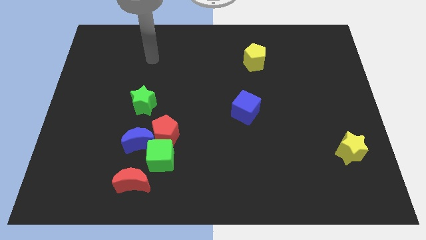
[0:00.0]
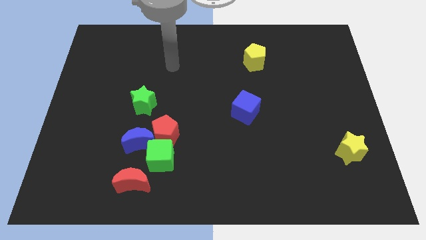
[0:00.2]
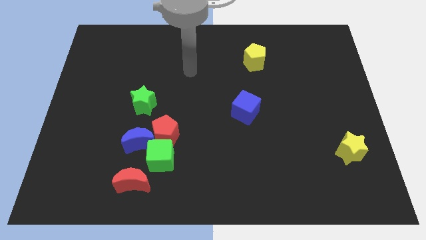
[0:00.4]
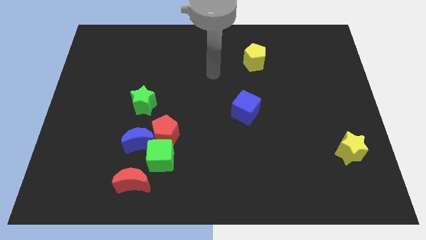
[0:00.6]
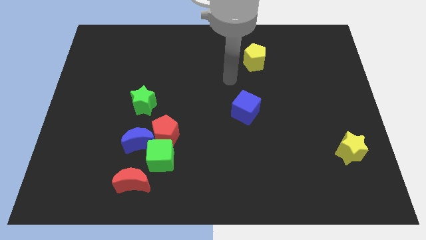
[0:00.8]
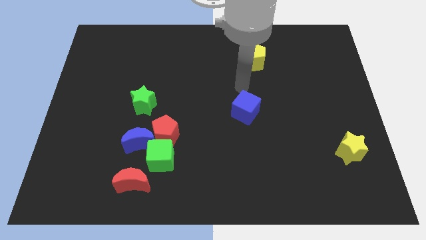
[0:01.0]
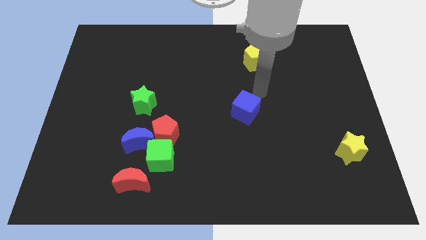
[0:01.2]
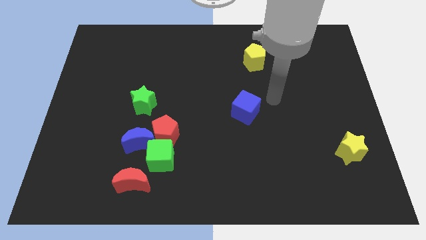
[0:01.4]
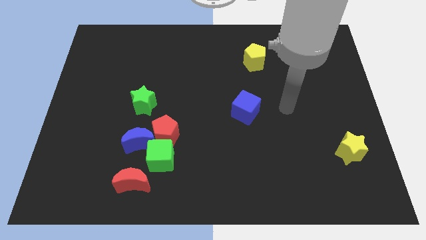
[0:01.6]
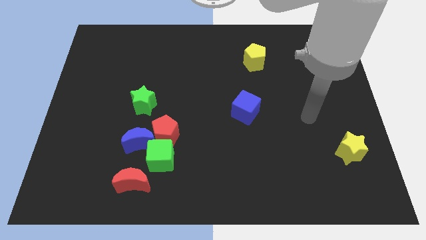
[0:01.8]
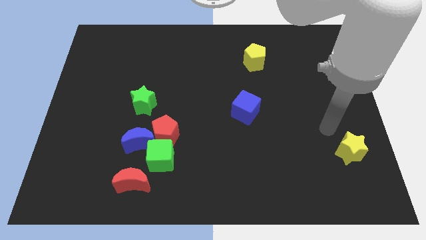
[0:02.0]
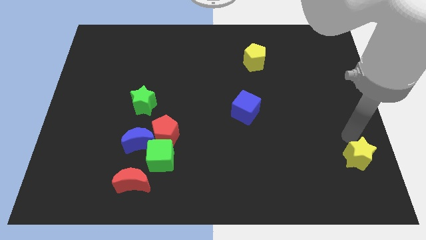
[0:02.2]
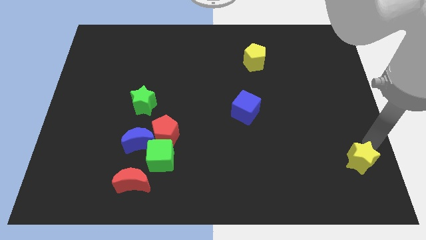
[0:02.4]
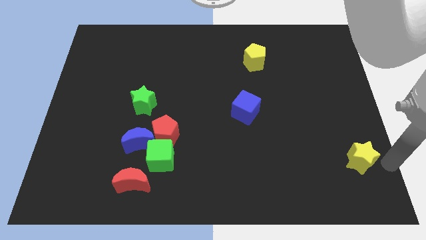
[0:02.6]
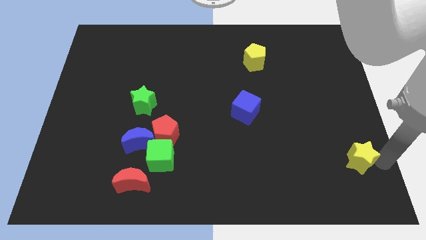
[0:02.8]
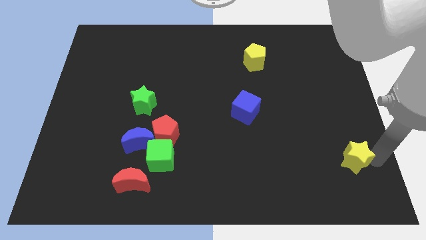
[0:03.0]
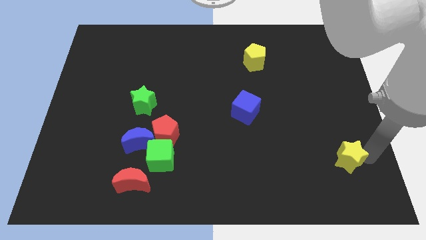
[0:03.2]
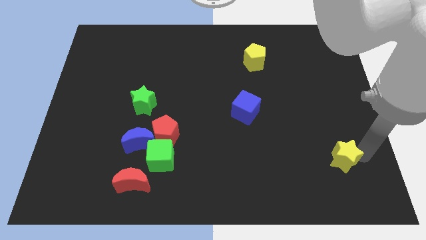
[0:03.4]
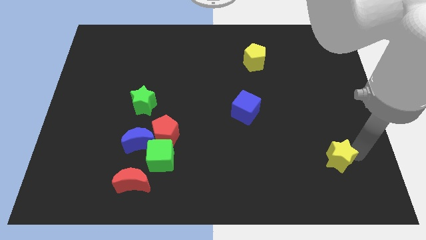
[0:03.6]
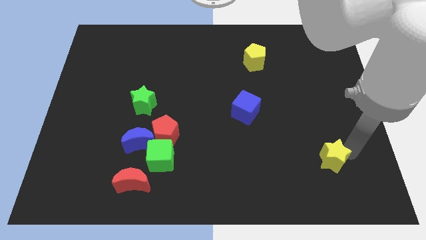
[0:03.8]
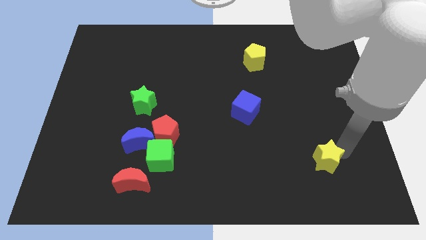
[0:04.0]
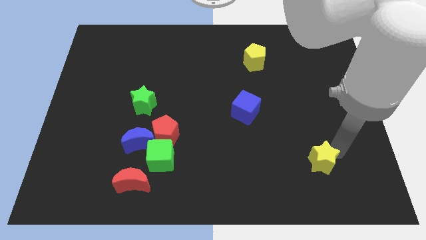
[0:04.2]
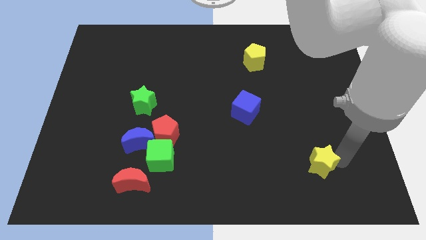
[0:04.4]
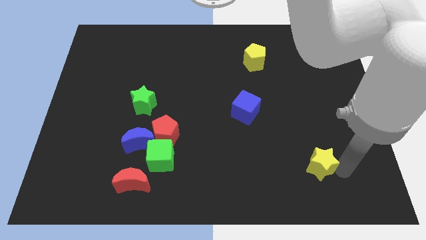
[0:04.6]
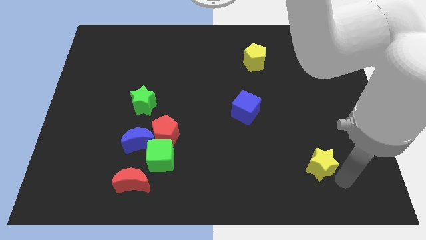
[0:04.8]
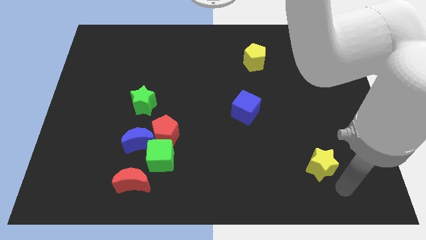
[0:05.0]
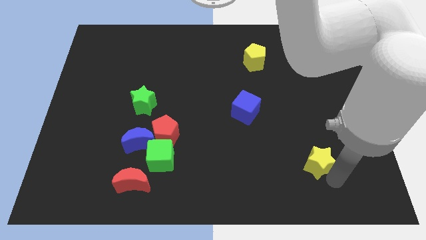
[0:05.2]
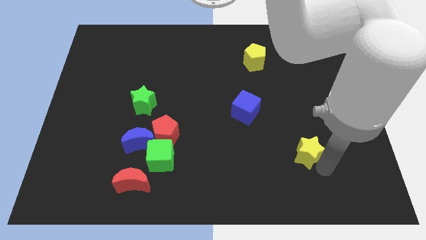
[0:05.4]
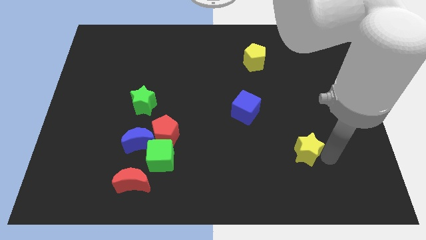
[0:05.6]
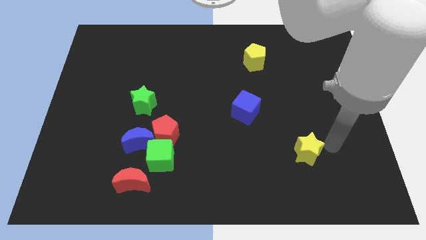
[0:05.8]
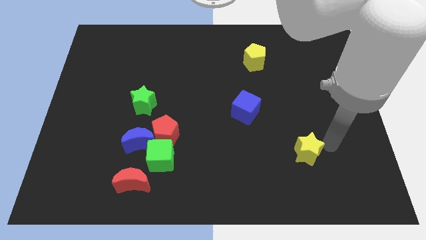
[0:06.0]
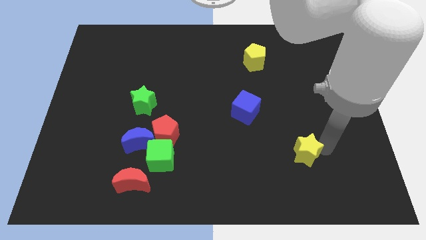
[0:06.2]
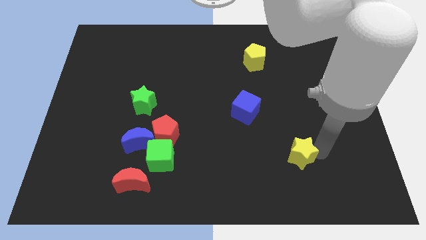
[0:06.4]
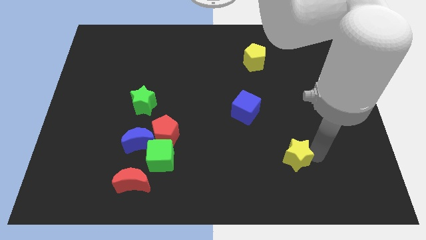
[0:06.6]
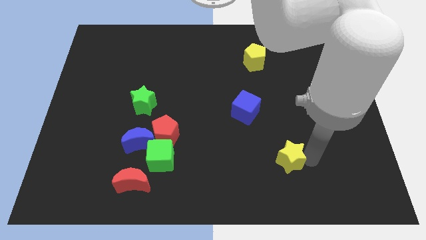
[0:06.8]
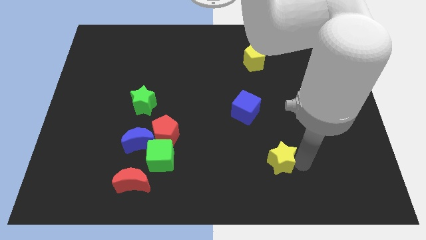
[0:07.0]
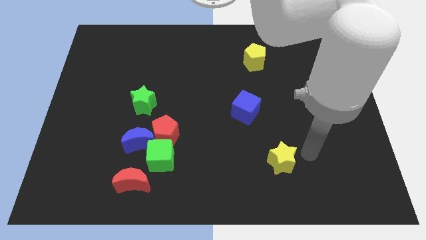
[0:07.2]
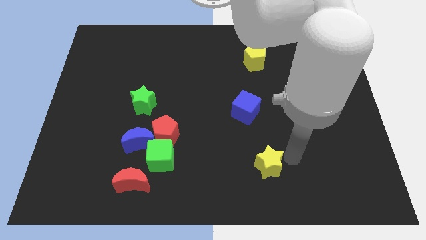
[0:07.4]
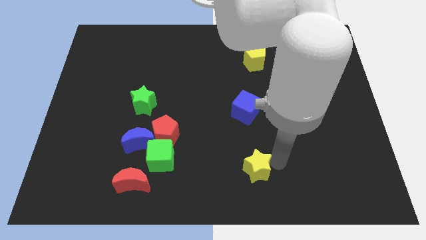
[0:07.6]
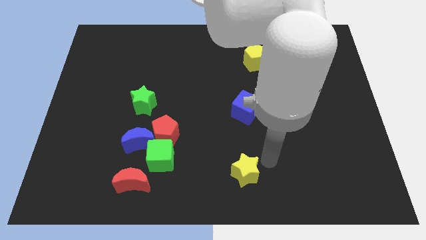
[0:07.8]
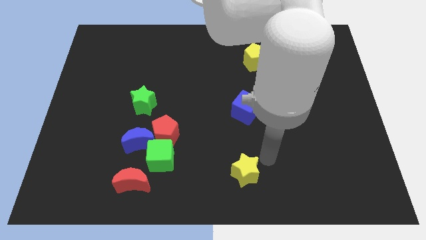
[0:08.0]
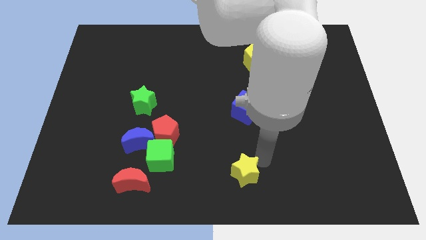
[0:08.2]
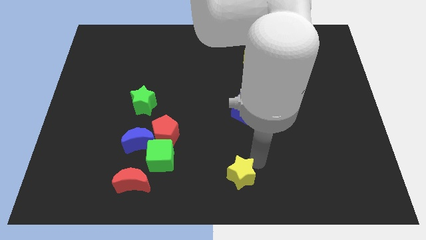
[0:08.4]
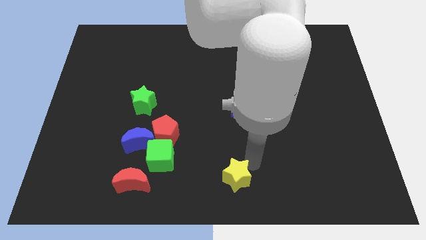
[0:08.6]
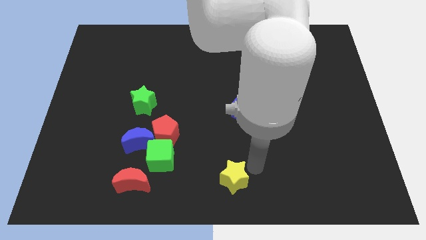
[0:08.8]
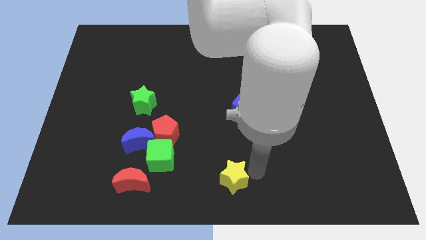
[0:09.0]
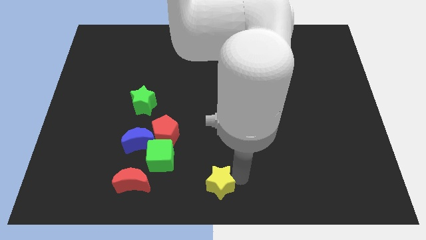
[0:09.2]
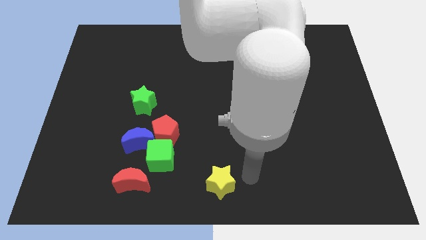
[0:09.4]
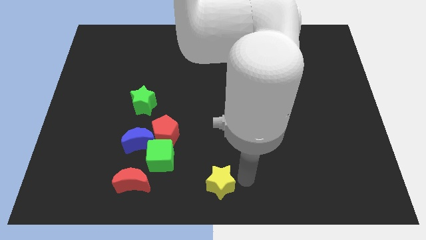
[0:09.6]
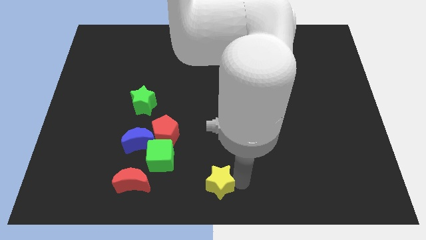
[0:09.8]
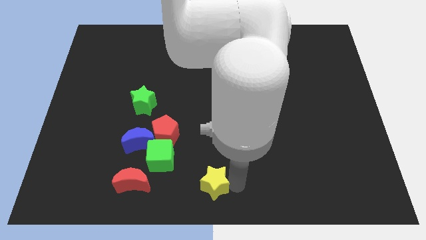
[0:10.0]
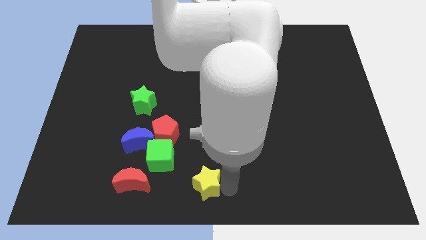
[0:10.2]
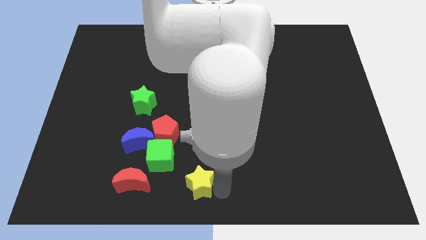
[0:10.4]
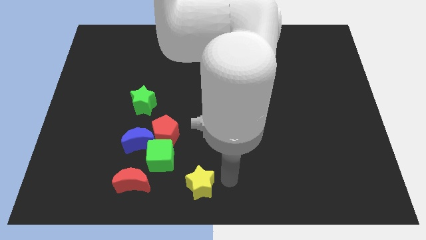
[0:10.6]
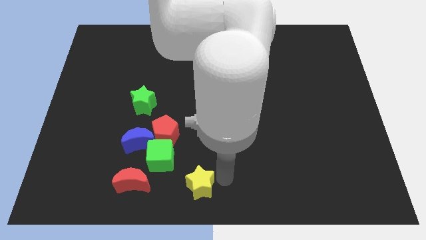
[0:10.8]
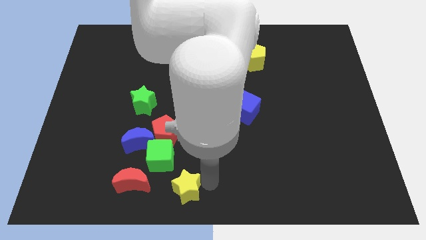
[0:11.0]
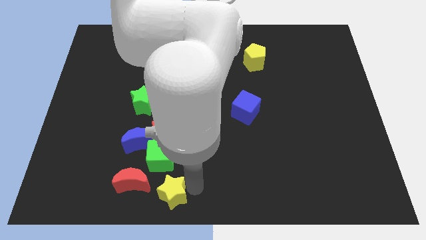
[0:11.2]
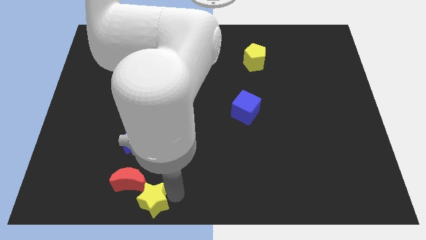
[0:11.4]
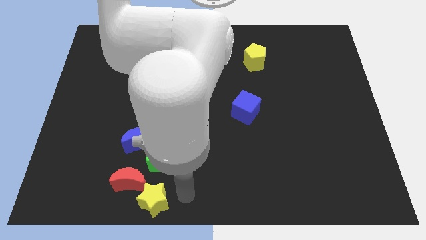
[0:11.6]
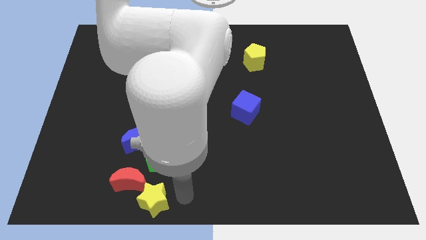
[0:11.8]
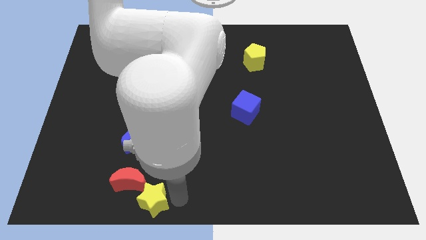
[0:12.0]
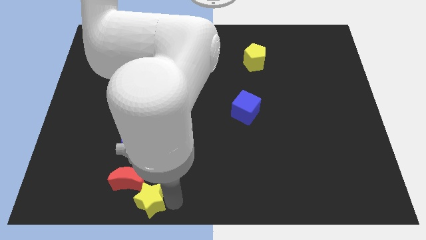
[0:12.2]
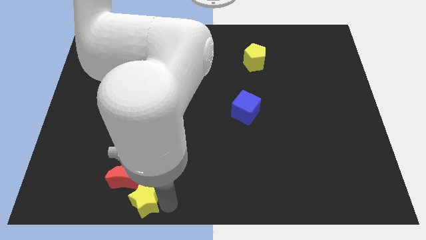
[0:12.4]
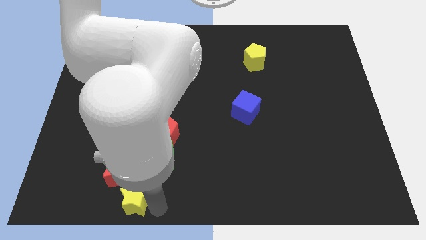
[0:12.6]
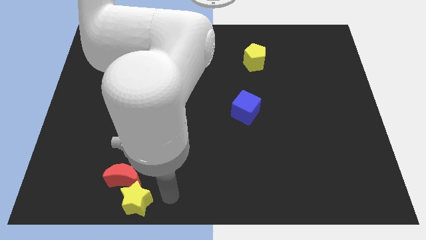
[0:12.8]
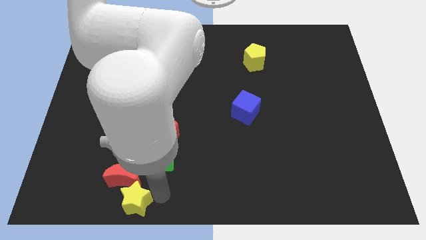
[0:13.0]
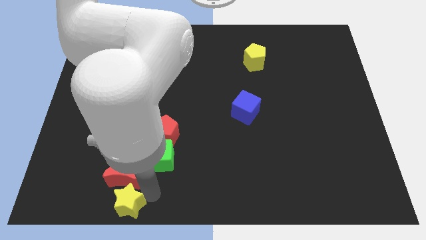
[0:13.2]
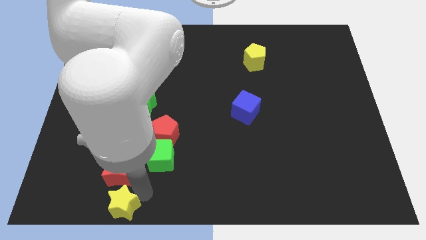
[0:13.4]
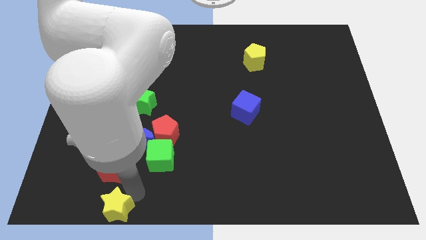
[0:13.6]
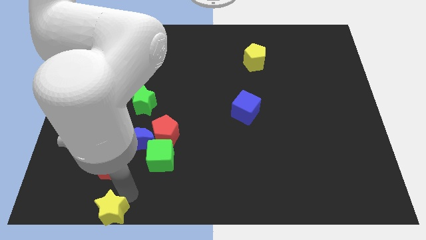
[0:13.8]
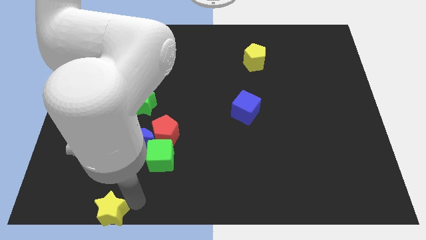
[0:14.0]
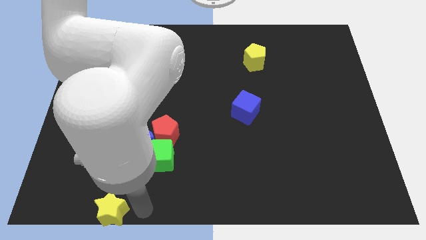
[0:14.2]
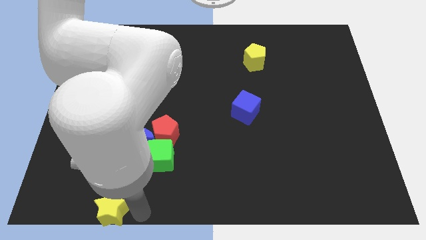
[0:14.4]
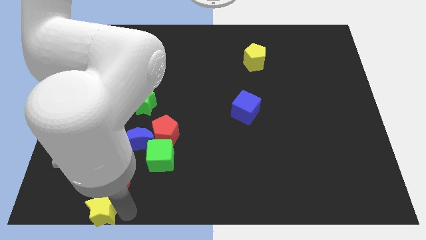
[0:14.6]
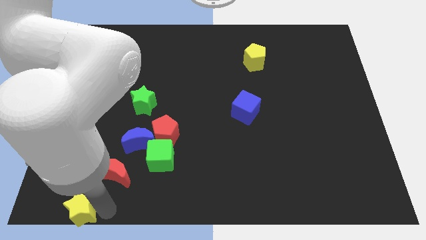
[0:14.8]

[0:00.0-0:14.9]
move the yellow star to the bottom left corner
